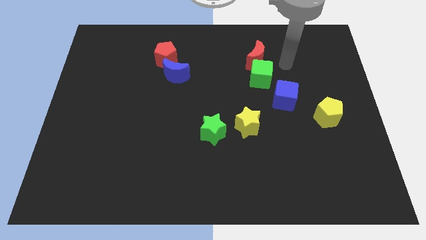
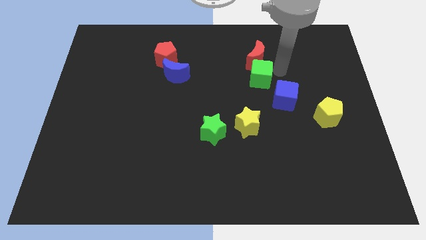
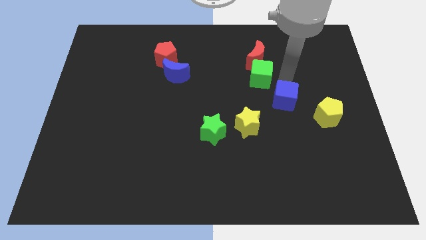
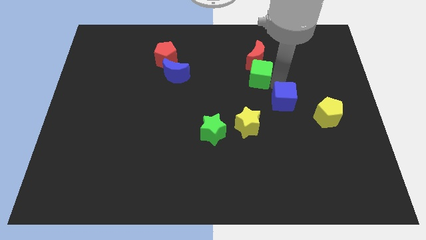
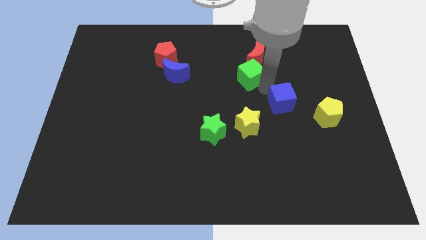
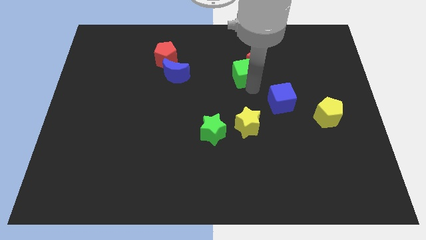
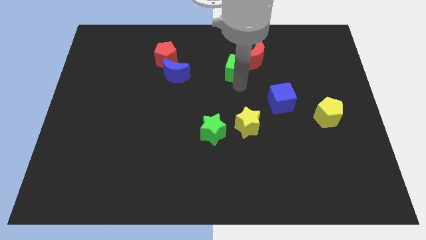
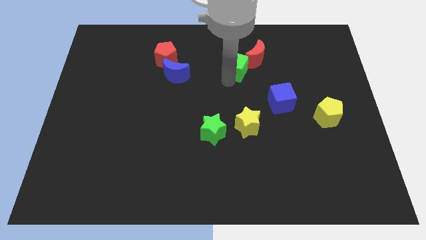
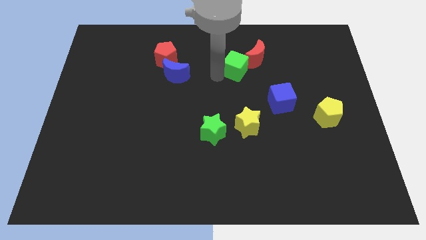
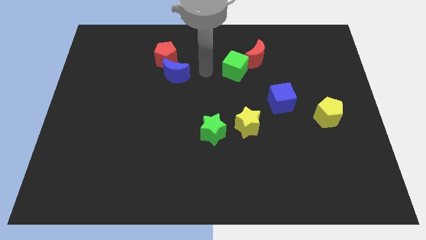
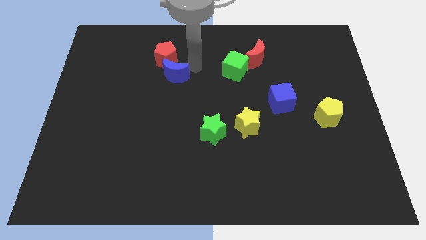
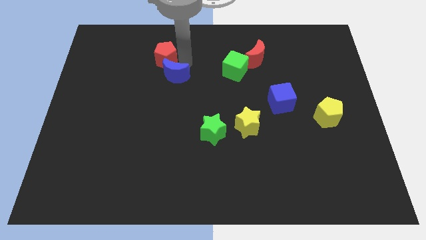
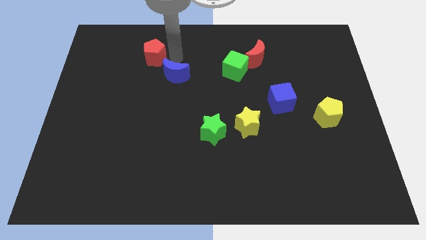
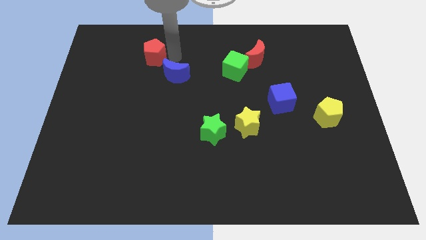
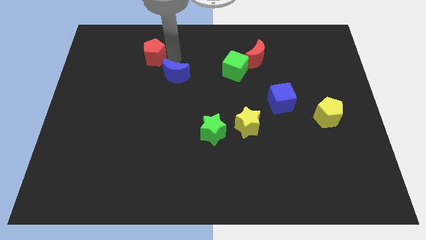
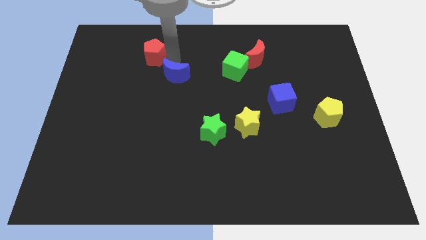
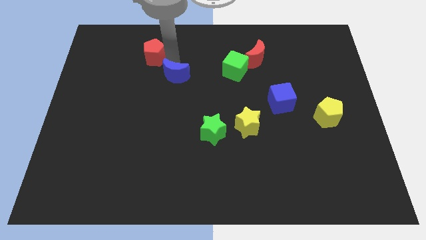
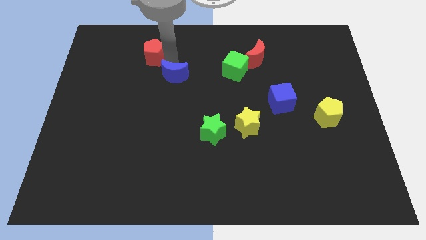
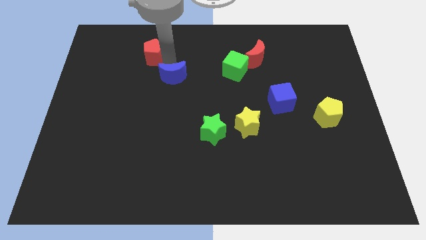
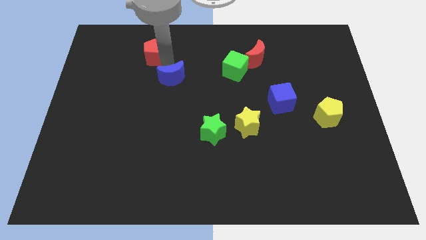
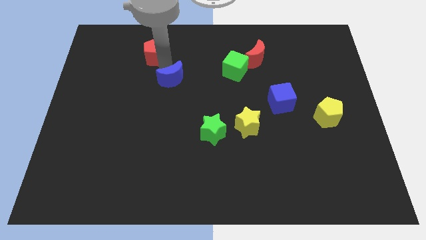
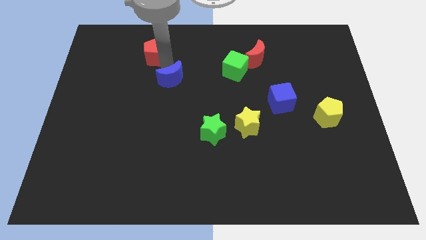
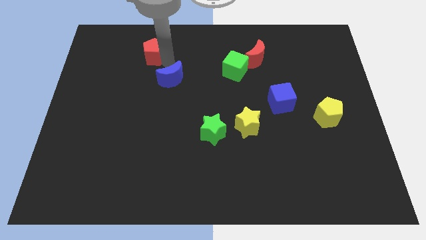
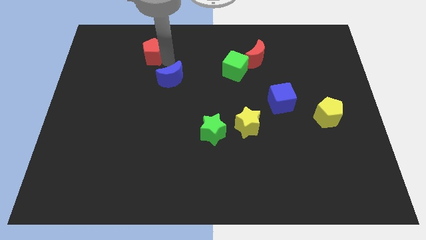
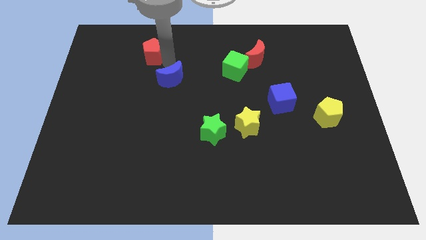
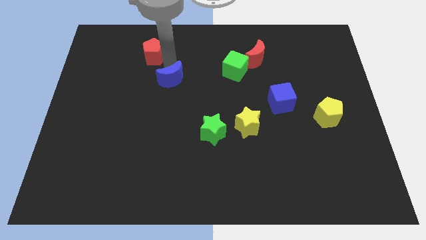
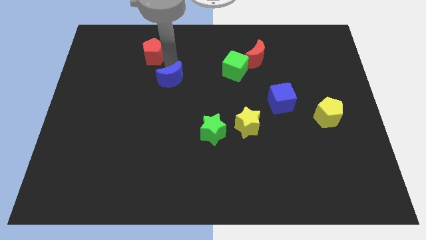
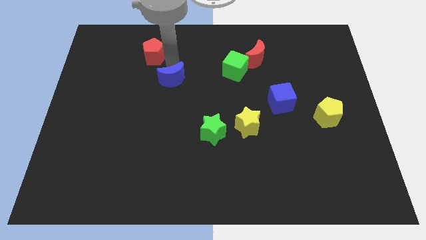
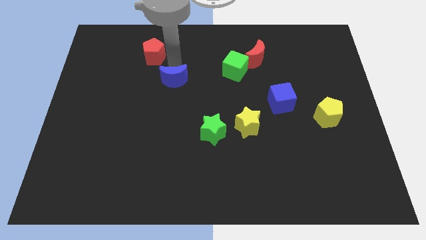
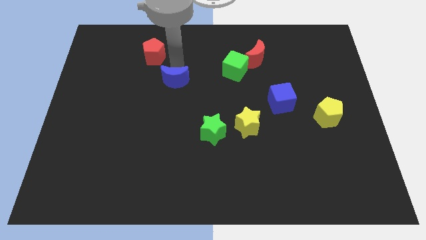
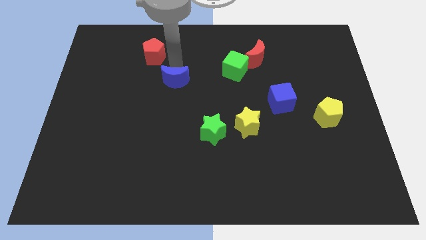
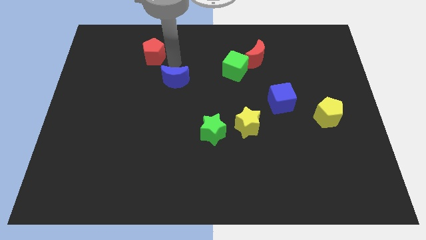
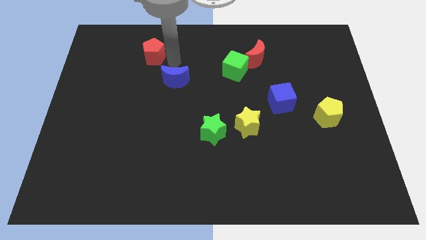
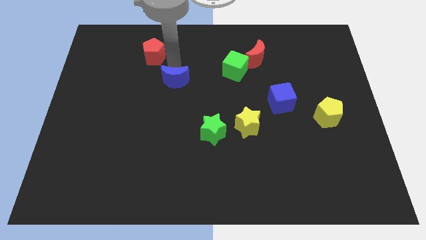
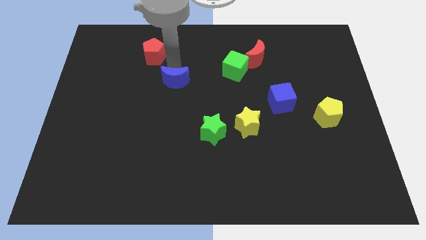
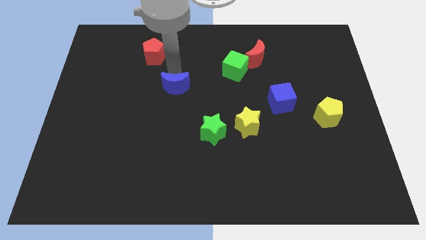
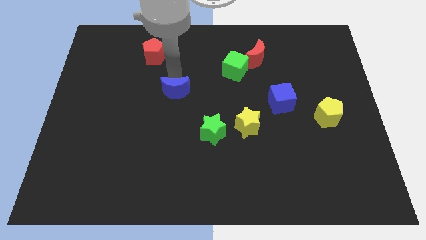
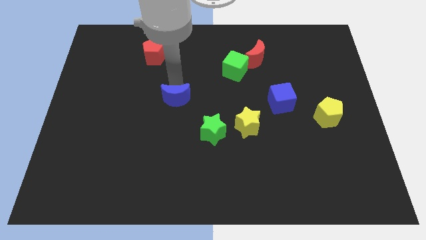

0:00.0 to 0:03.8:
slightly push the blue moon downwards

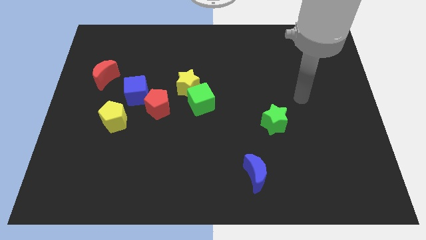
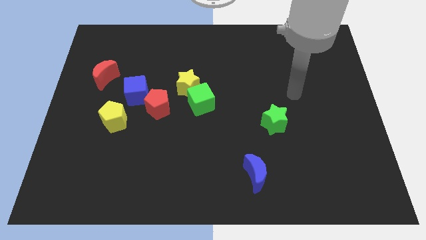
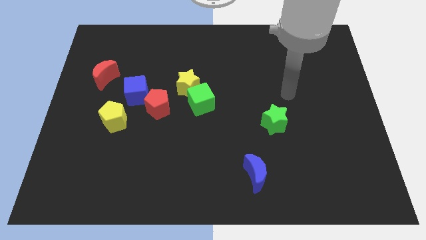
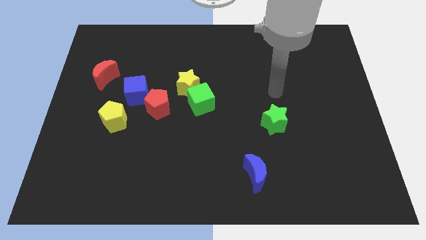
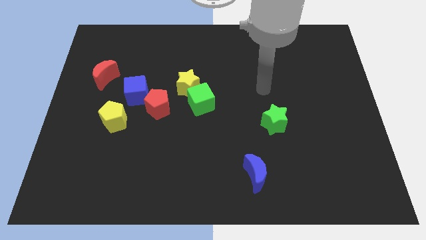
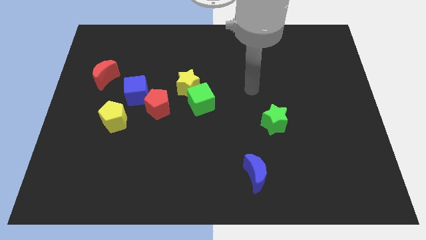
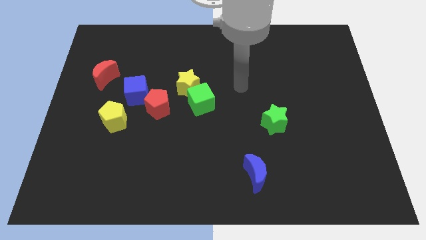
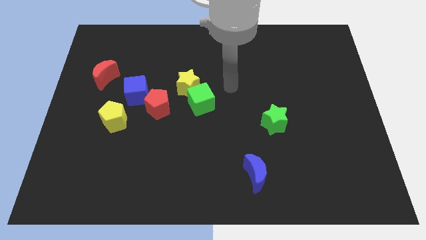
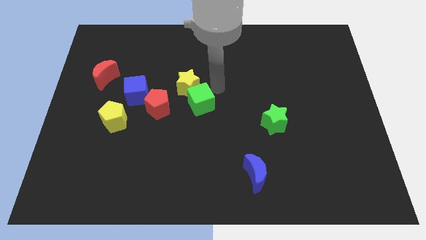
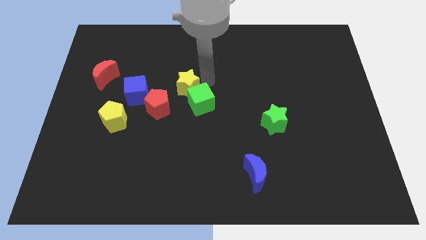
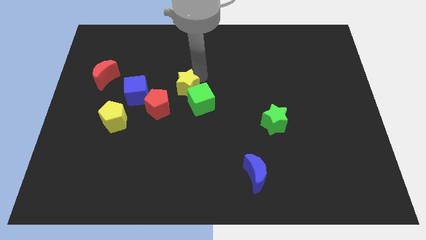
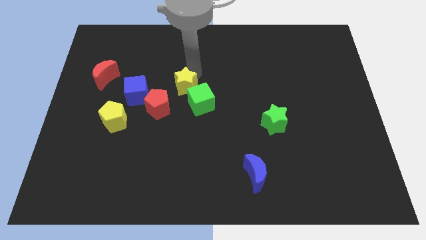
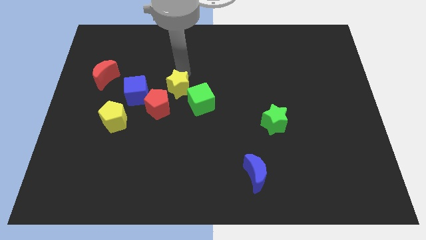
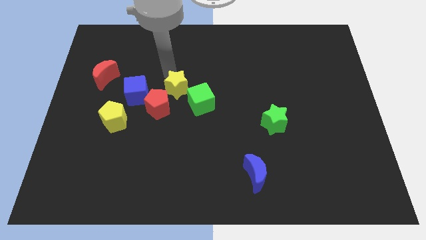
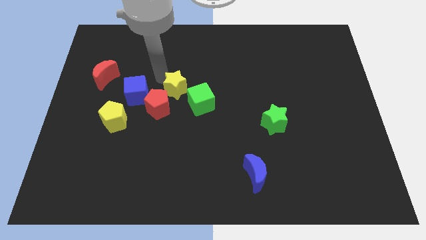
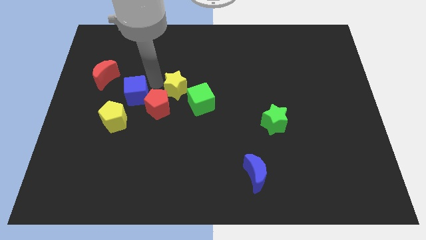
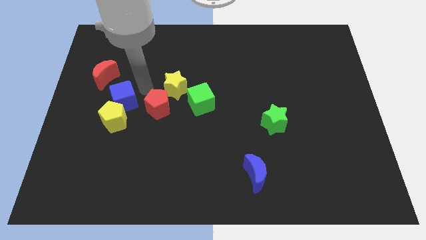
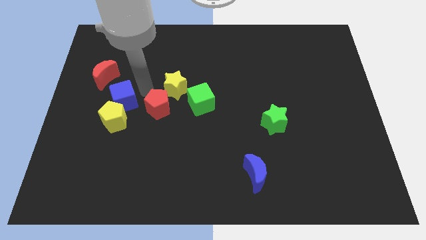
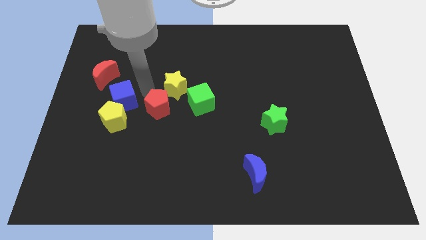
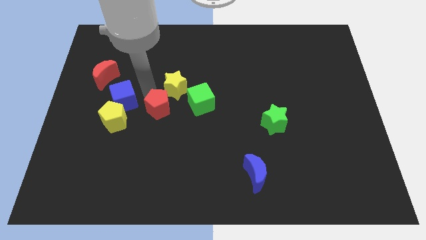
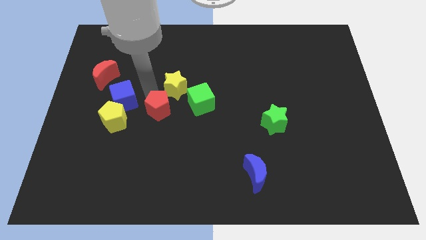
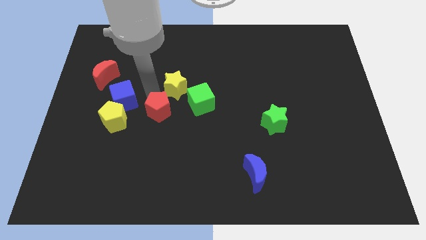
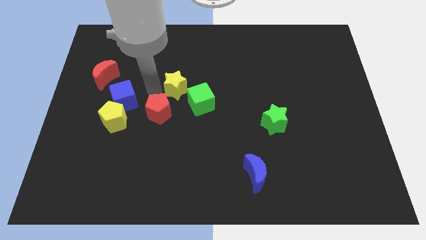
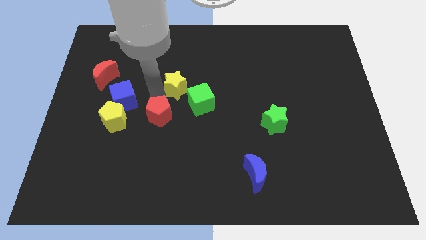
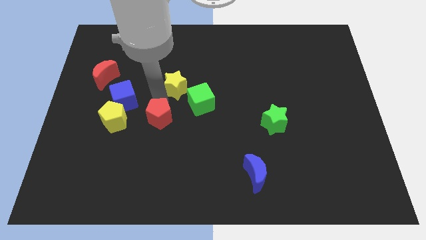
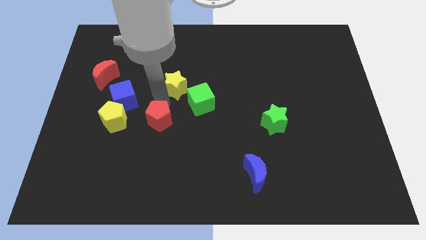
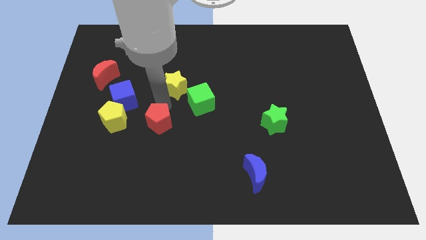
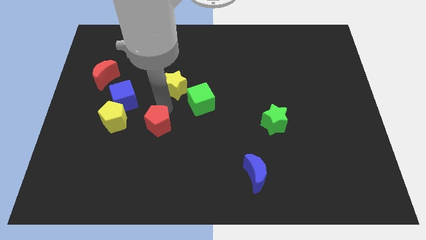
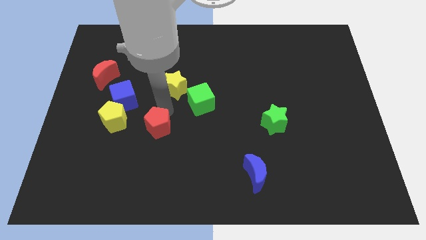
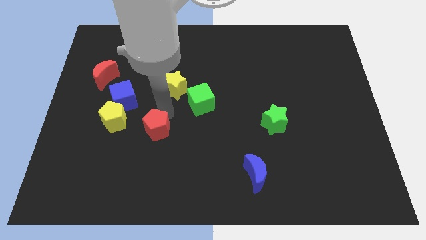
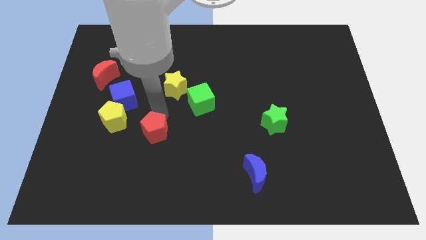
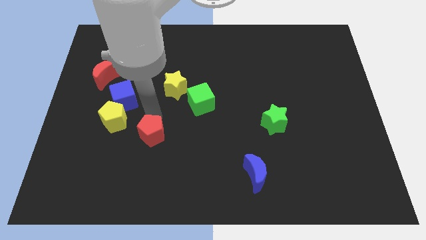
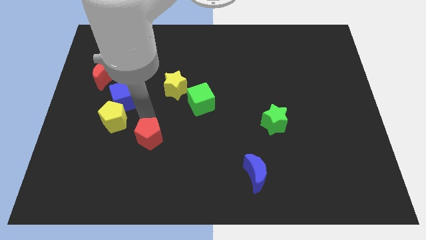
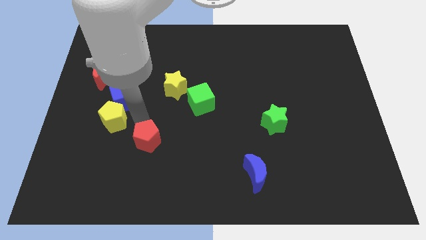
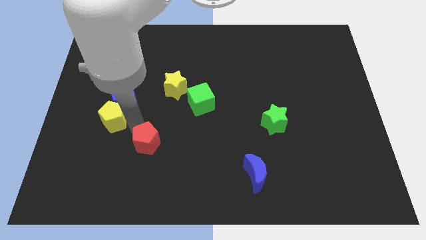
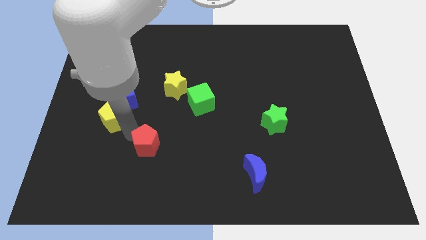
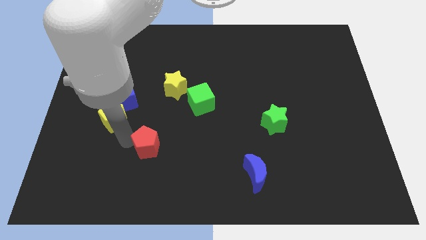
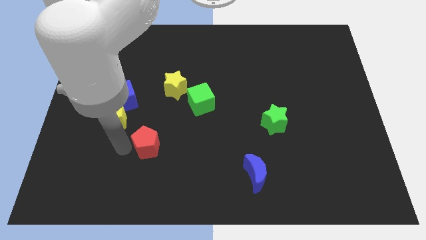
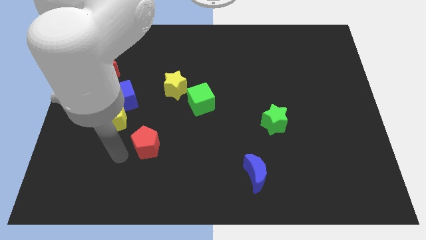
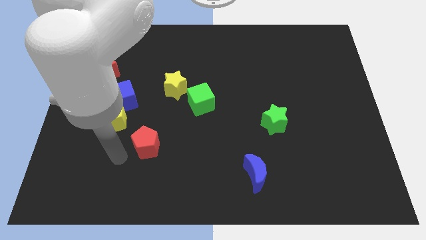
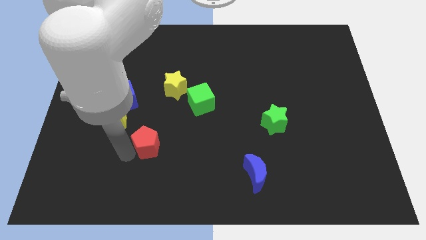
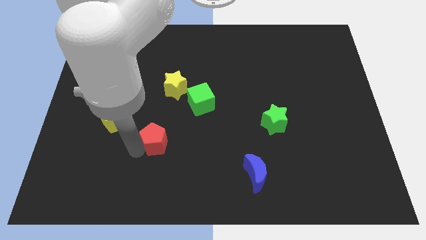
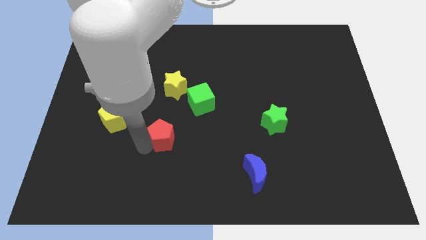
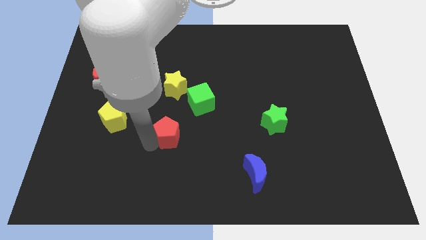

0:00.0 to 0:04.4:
push the red pentagon somewhat downwards and then to the right
